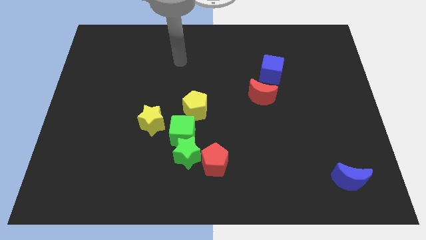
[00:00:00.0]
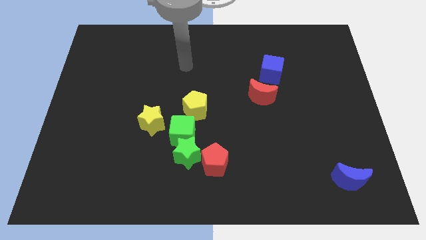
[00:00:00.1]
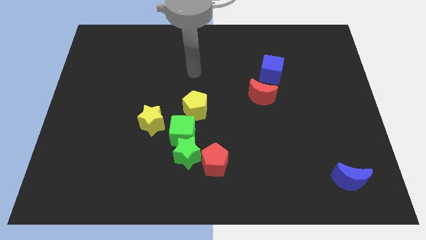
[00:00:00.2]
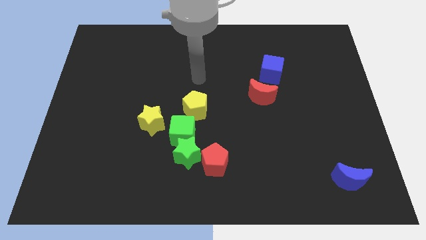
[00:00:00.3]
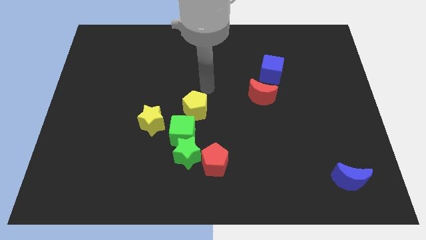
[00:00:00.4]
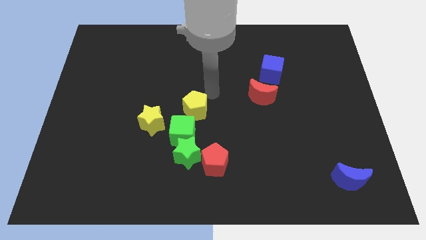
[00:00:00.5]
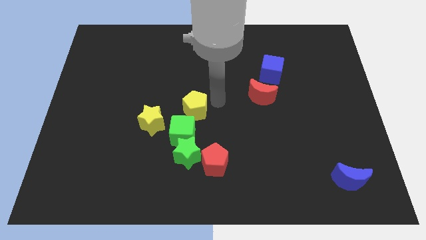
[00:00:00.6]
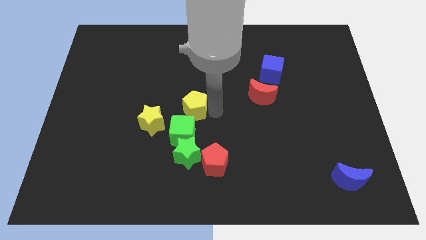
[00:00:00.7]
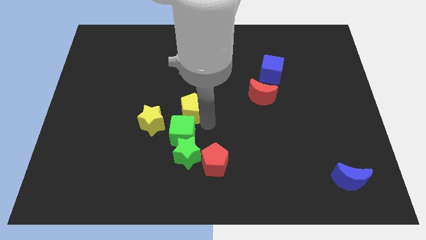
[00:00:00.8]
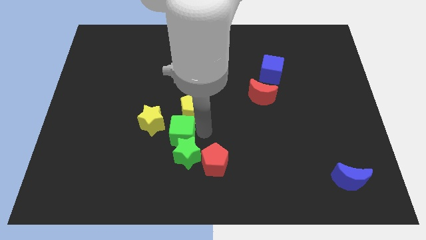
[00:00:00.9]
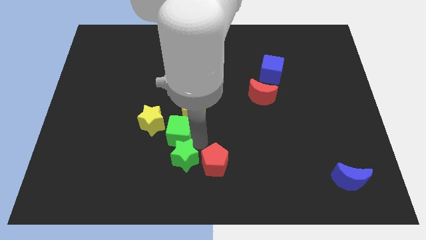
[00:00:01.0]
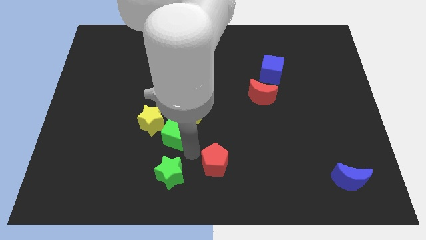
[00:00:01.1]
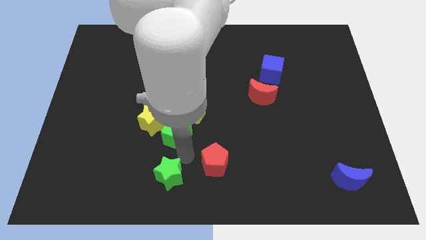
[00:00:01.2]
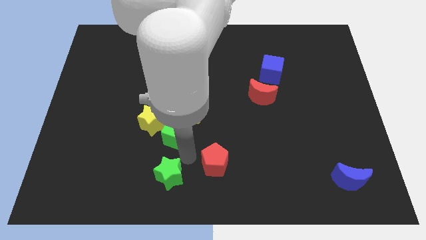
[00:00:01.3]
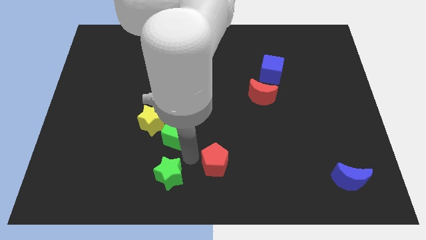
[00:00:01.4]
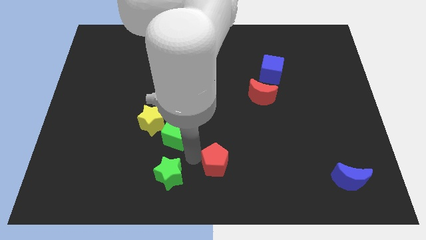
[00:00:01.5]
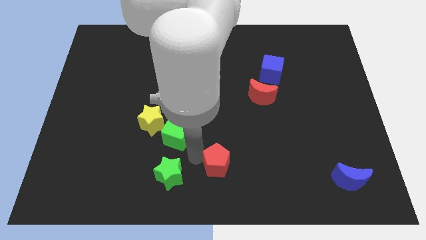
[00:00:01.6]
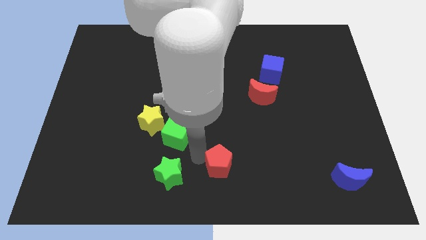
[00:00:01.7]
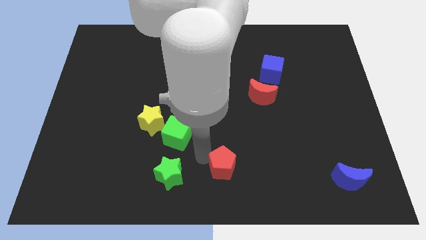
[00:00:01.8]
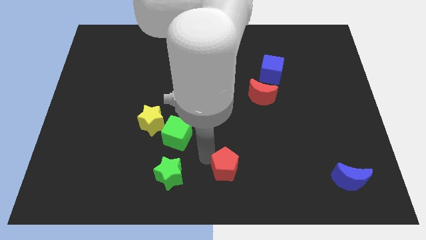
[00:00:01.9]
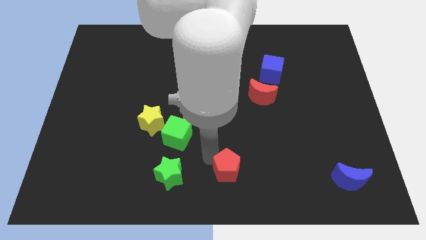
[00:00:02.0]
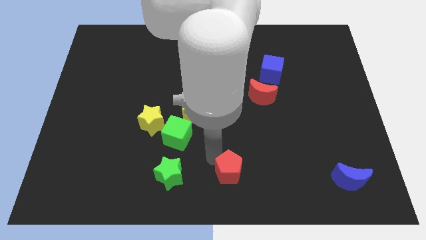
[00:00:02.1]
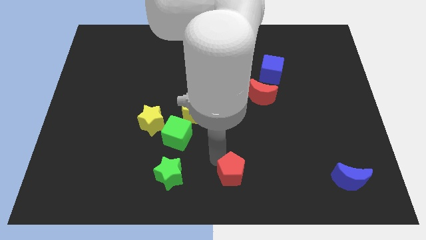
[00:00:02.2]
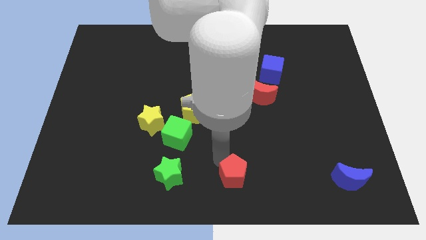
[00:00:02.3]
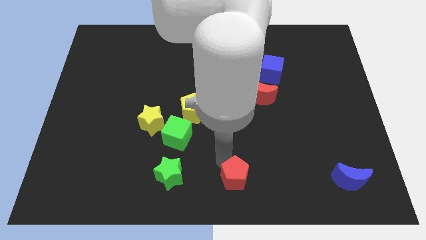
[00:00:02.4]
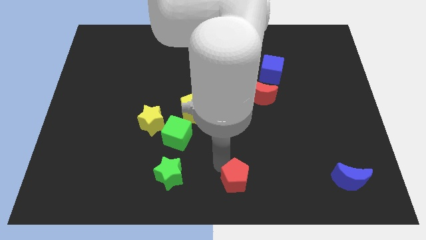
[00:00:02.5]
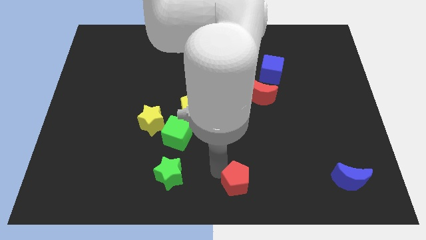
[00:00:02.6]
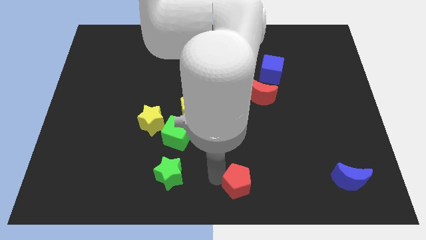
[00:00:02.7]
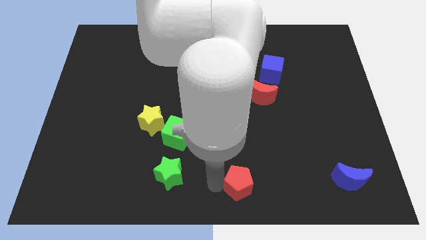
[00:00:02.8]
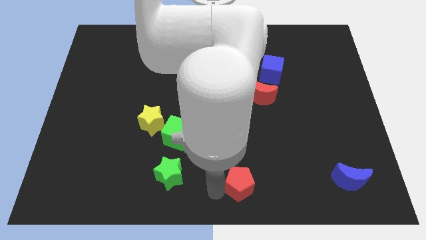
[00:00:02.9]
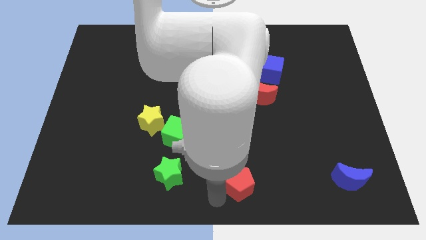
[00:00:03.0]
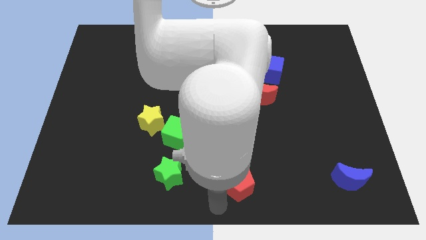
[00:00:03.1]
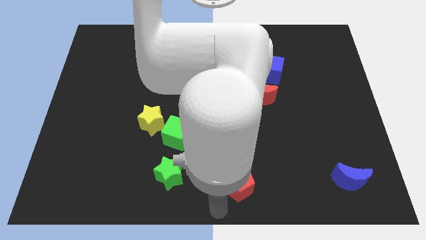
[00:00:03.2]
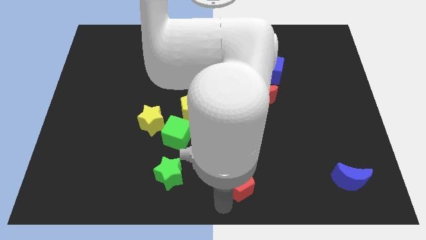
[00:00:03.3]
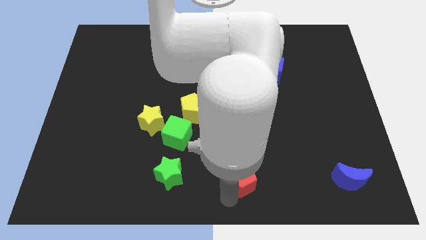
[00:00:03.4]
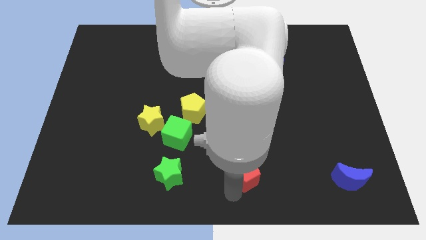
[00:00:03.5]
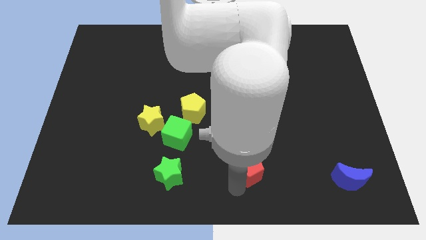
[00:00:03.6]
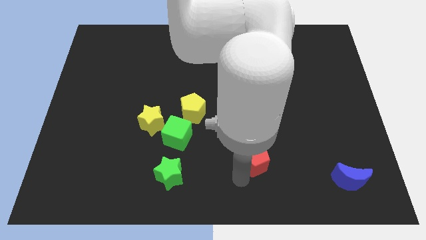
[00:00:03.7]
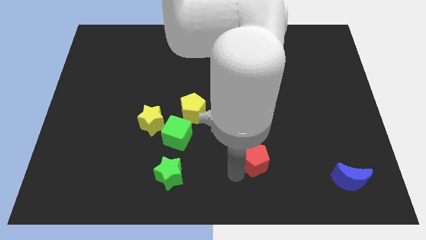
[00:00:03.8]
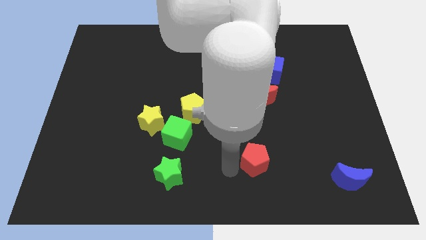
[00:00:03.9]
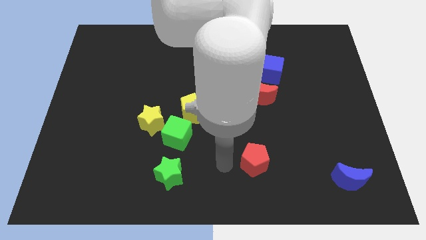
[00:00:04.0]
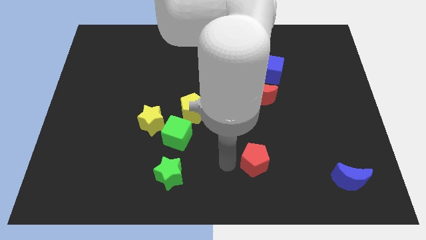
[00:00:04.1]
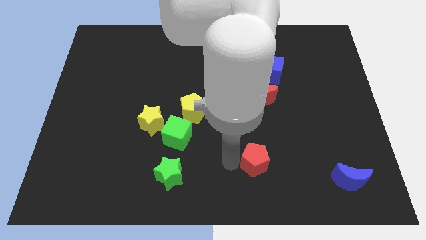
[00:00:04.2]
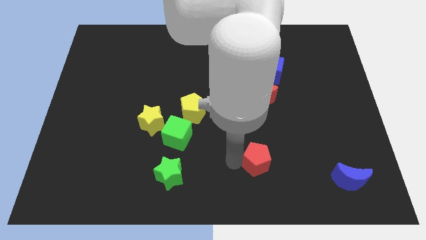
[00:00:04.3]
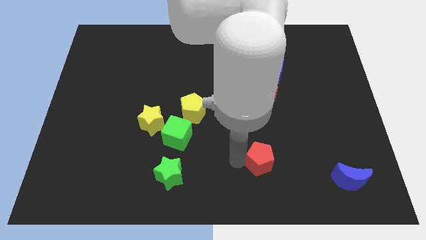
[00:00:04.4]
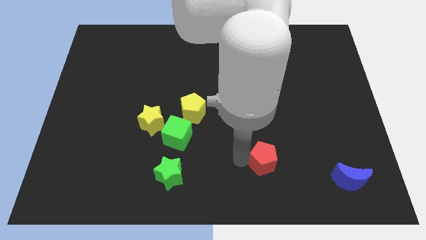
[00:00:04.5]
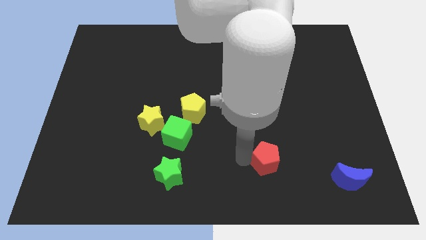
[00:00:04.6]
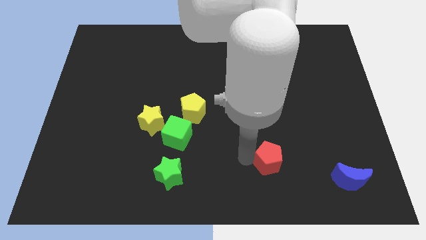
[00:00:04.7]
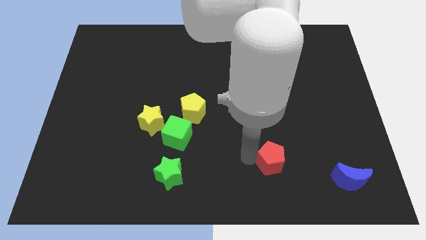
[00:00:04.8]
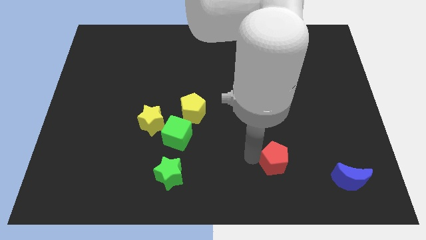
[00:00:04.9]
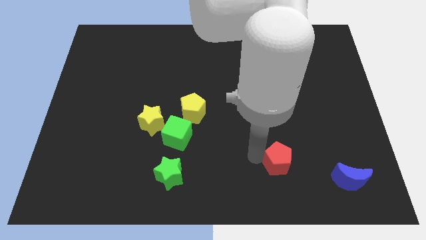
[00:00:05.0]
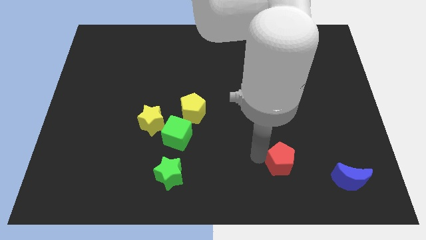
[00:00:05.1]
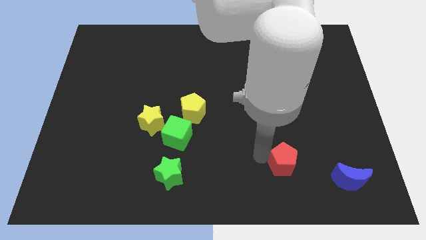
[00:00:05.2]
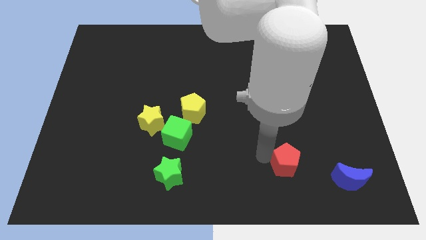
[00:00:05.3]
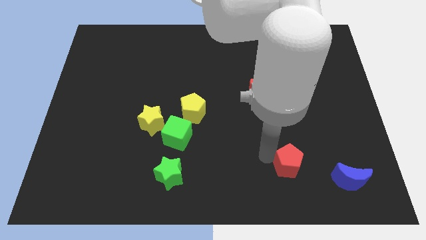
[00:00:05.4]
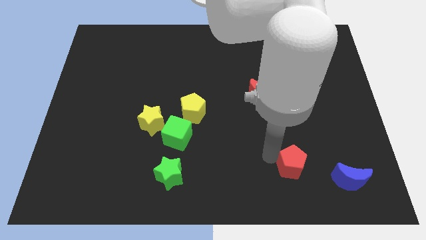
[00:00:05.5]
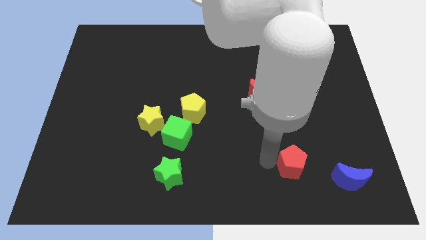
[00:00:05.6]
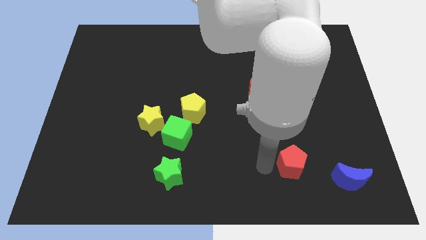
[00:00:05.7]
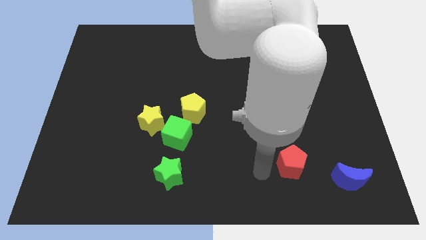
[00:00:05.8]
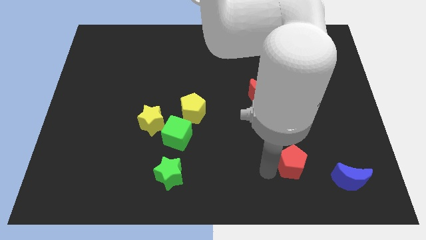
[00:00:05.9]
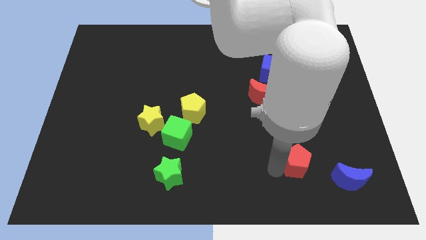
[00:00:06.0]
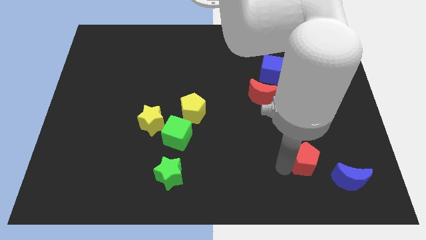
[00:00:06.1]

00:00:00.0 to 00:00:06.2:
slide the red pentagon diagonally up and to the left of the blue moon
